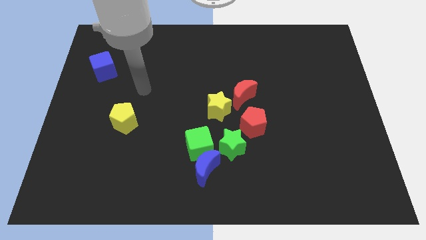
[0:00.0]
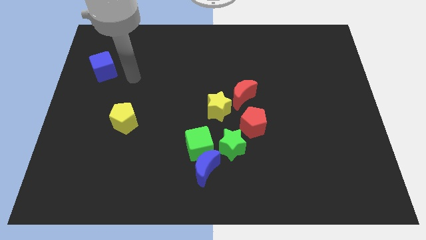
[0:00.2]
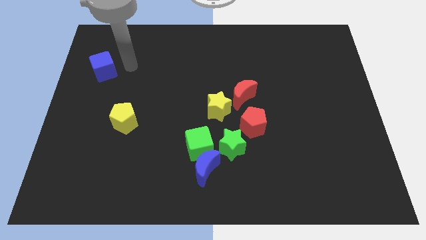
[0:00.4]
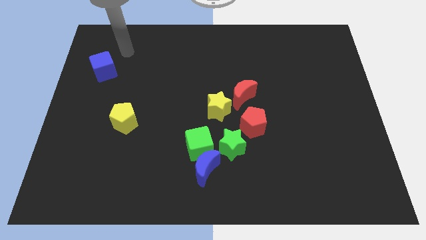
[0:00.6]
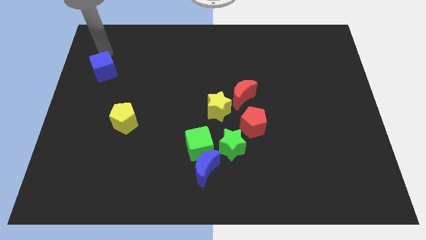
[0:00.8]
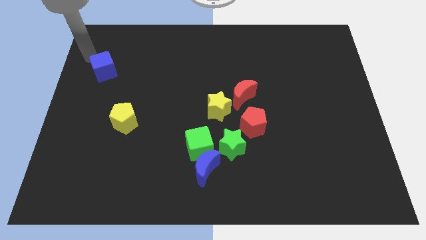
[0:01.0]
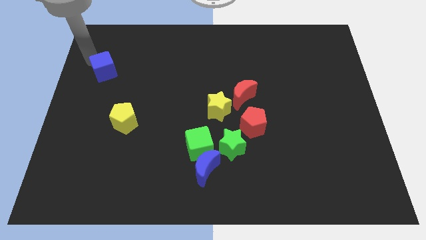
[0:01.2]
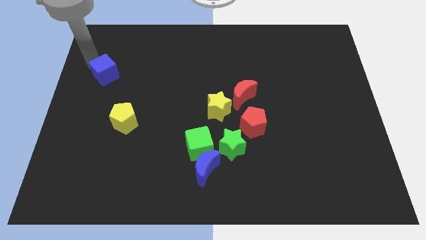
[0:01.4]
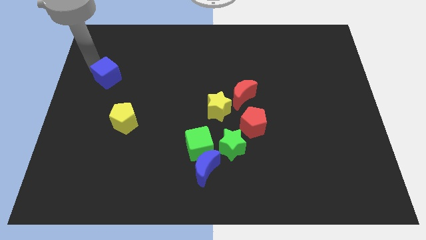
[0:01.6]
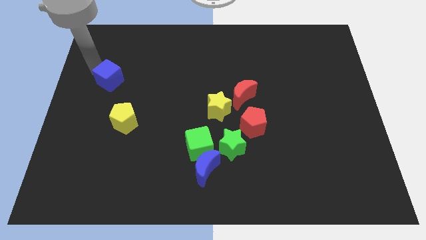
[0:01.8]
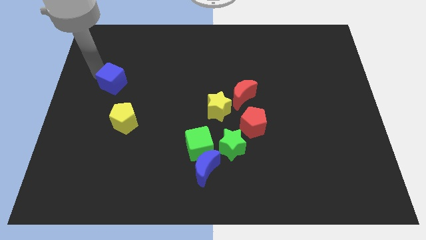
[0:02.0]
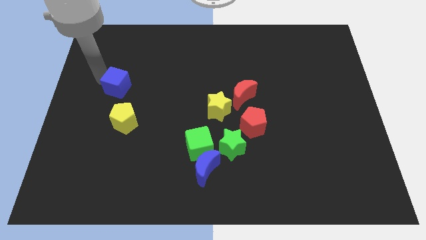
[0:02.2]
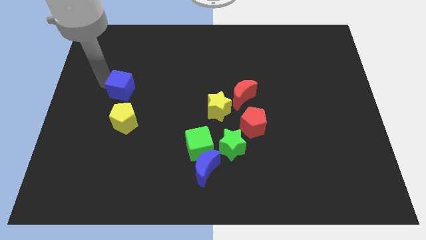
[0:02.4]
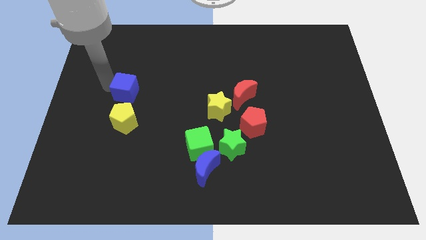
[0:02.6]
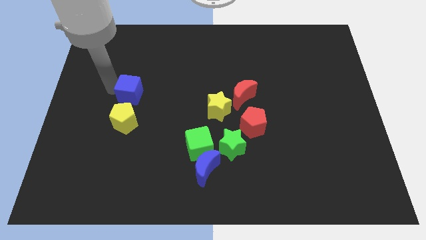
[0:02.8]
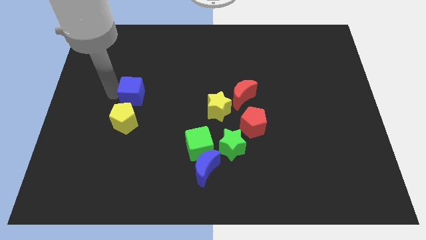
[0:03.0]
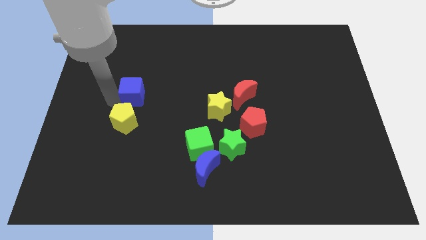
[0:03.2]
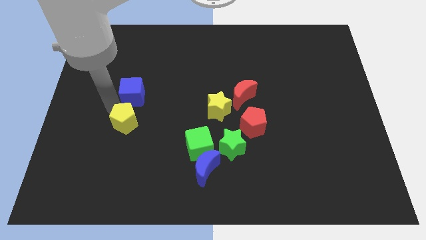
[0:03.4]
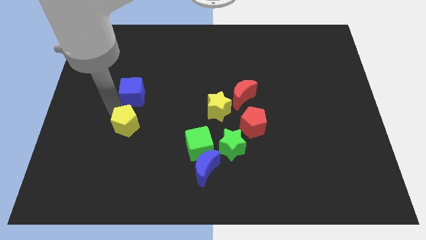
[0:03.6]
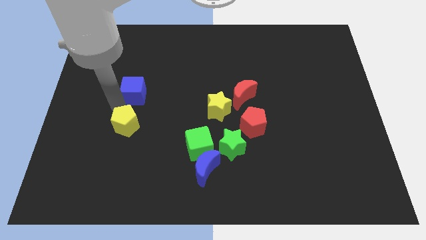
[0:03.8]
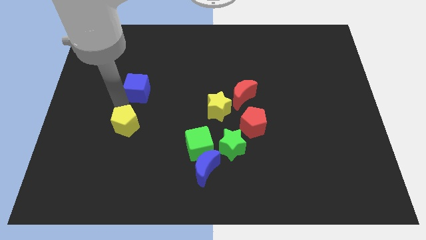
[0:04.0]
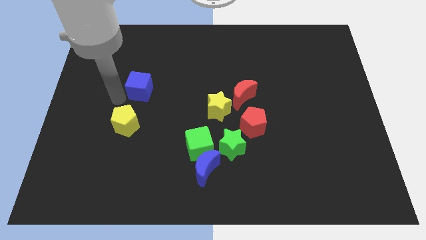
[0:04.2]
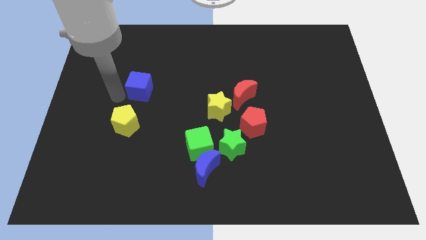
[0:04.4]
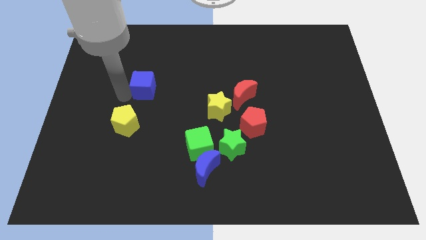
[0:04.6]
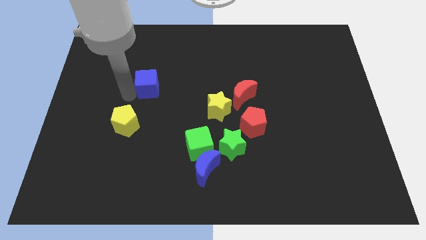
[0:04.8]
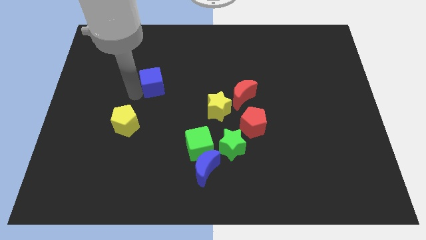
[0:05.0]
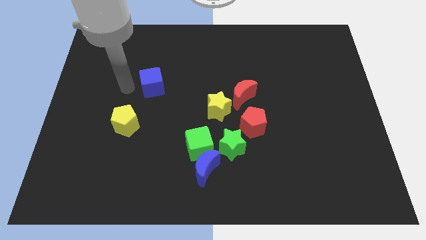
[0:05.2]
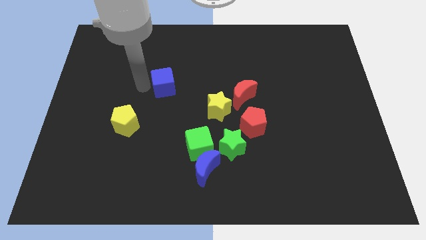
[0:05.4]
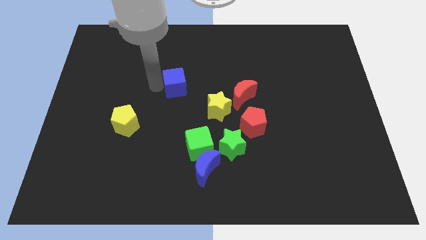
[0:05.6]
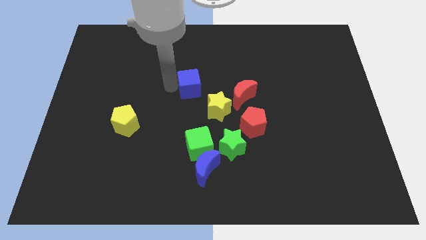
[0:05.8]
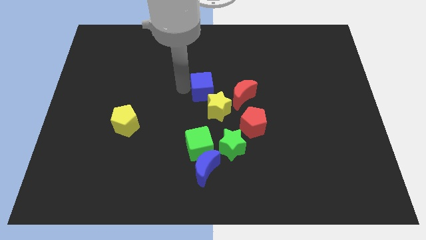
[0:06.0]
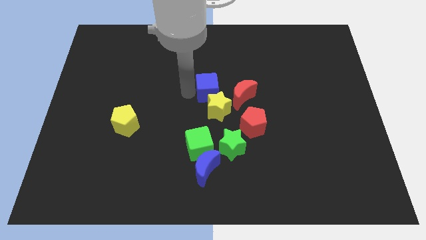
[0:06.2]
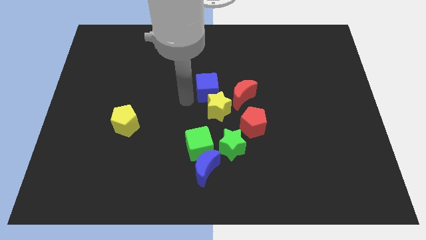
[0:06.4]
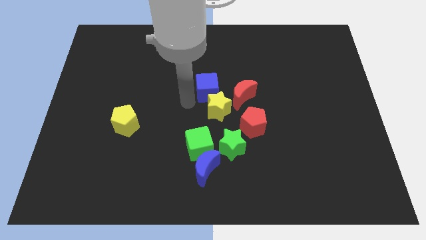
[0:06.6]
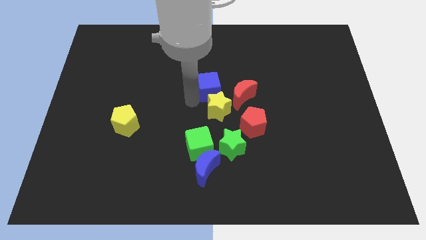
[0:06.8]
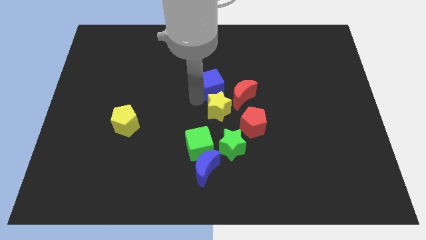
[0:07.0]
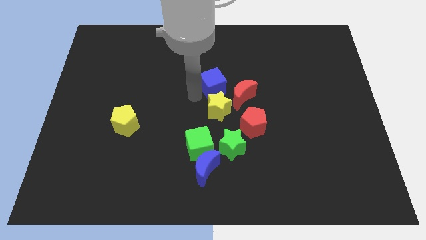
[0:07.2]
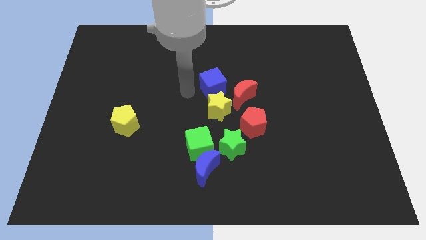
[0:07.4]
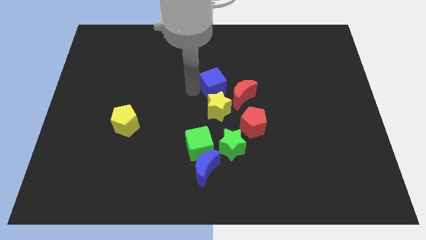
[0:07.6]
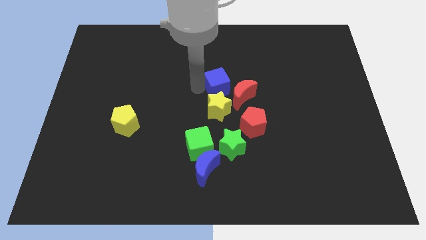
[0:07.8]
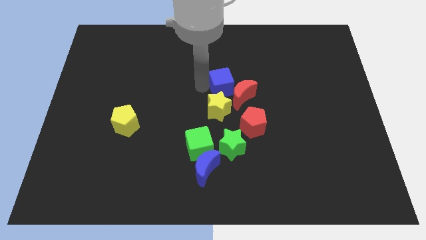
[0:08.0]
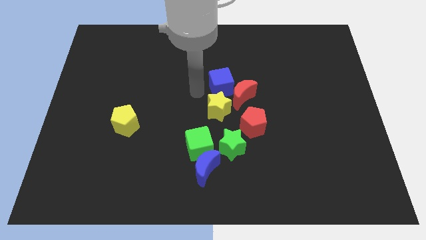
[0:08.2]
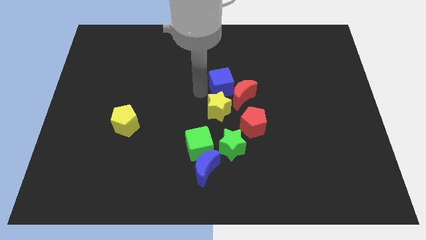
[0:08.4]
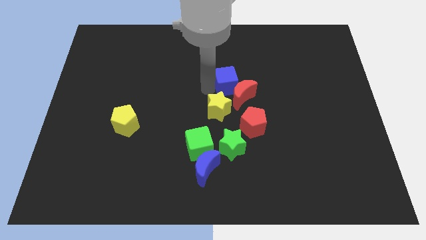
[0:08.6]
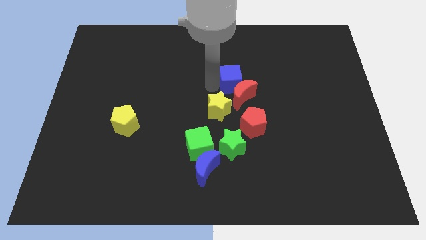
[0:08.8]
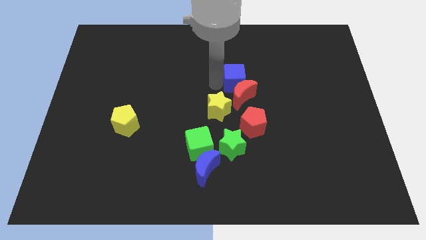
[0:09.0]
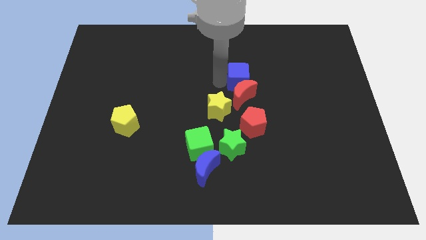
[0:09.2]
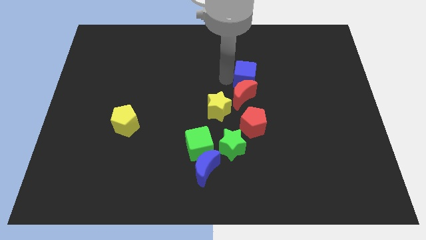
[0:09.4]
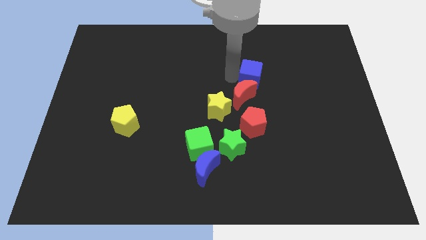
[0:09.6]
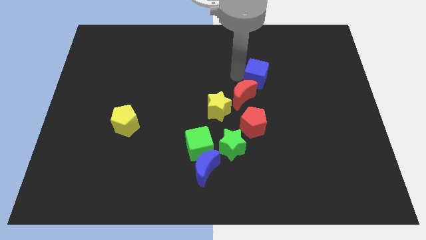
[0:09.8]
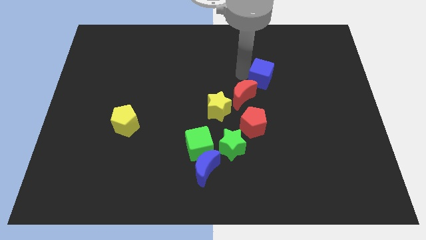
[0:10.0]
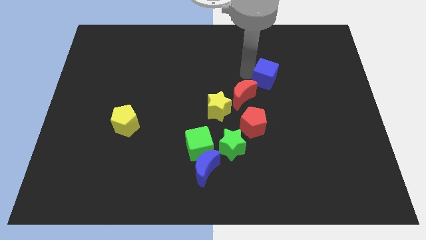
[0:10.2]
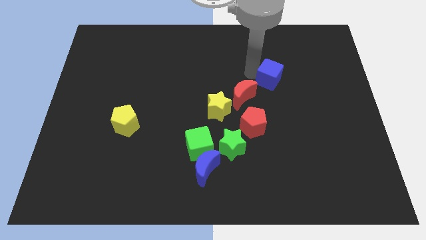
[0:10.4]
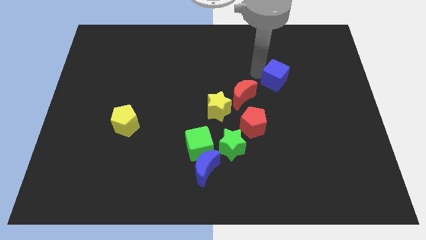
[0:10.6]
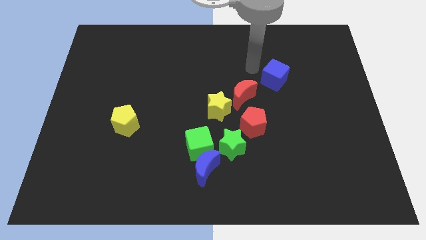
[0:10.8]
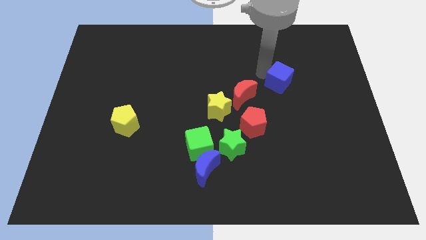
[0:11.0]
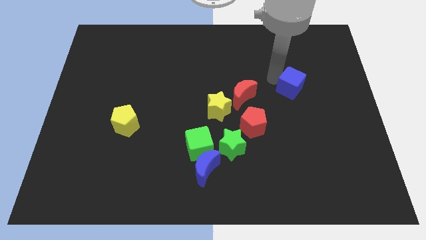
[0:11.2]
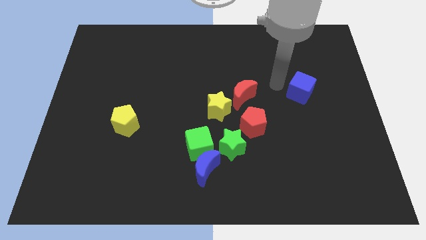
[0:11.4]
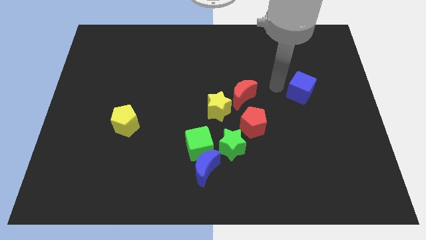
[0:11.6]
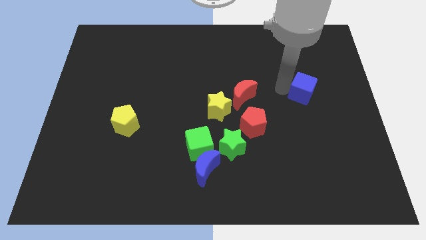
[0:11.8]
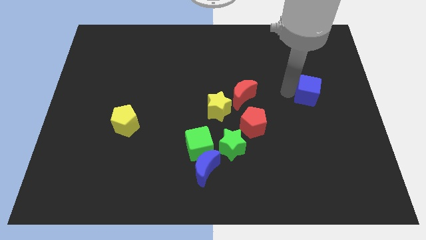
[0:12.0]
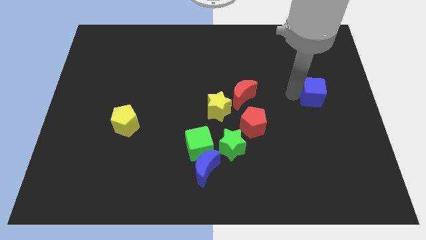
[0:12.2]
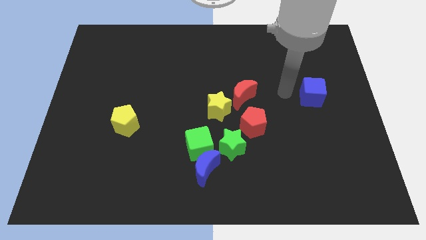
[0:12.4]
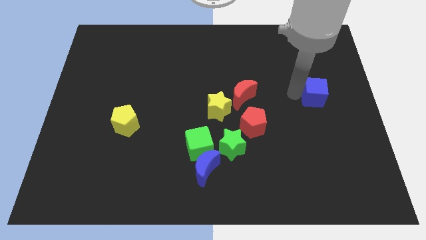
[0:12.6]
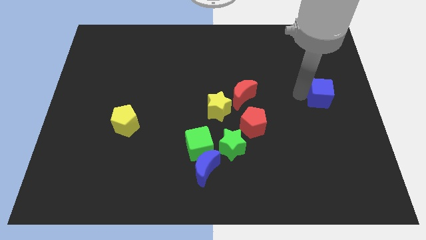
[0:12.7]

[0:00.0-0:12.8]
slide the blue cube to the right side
